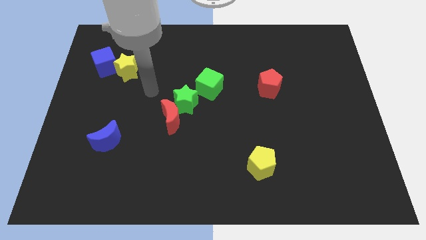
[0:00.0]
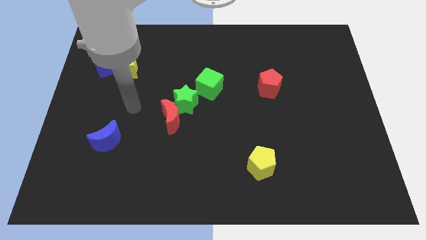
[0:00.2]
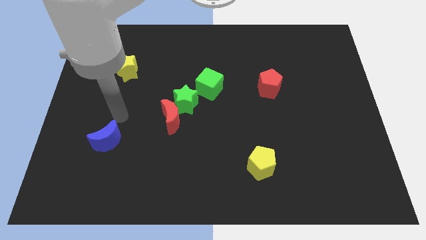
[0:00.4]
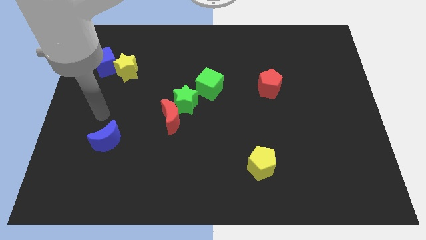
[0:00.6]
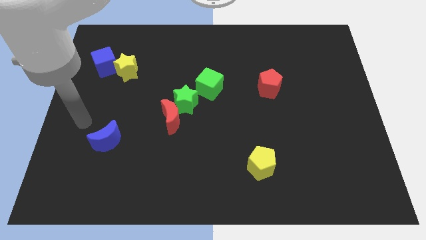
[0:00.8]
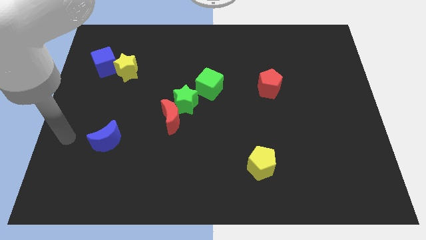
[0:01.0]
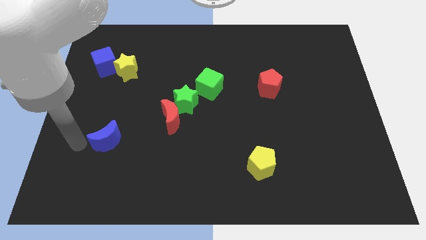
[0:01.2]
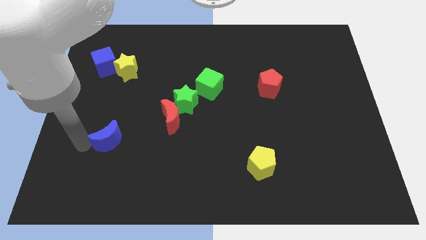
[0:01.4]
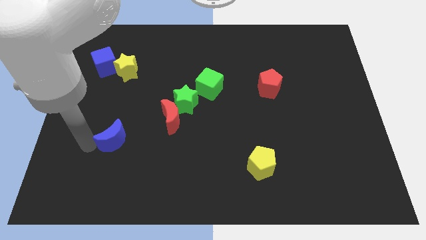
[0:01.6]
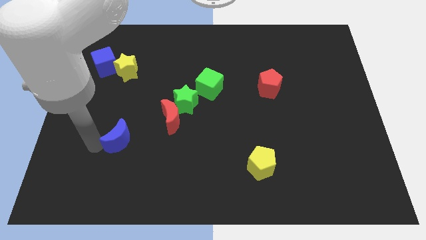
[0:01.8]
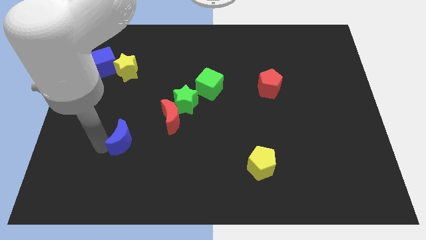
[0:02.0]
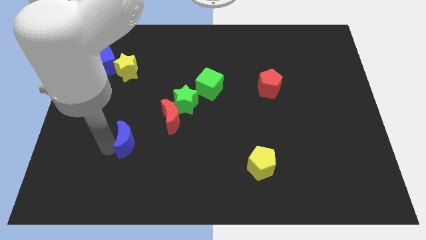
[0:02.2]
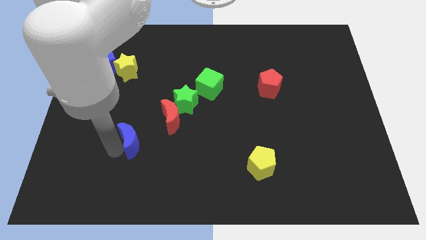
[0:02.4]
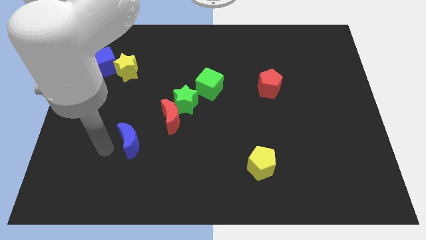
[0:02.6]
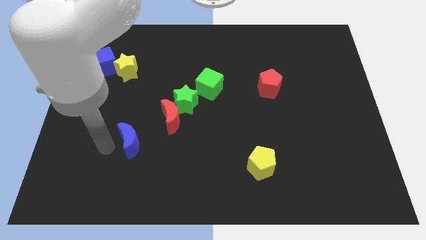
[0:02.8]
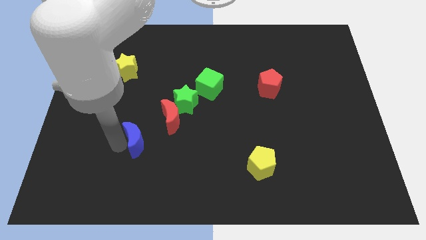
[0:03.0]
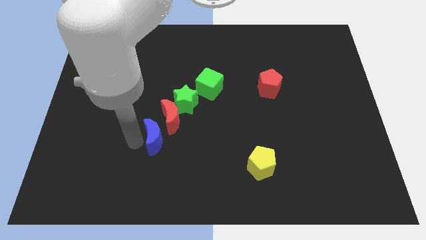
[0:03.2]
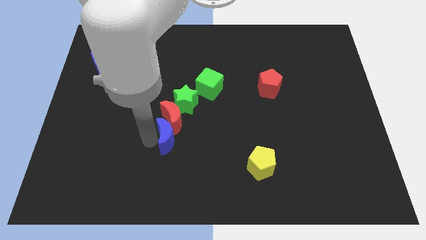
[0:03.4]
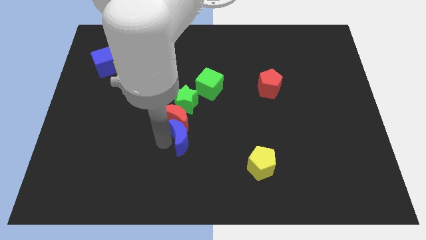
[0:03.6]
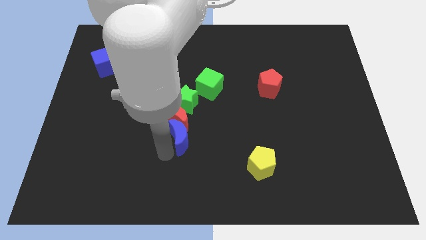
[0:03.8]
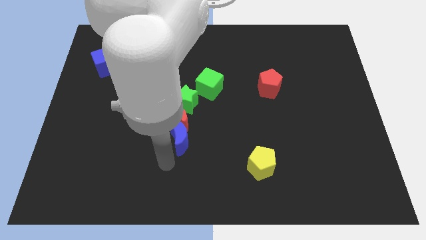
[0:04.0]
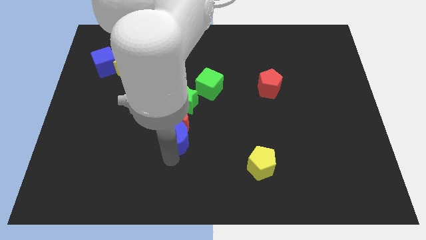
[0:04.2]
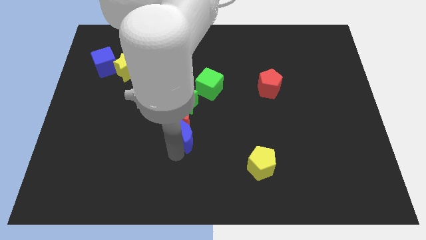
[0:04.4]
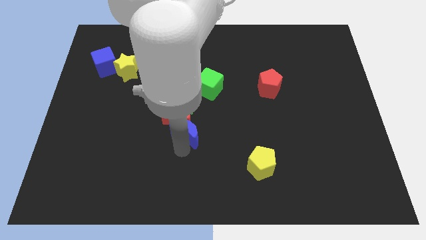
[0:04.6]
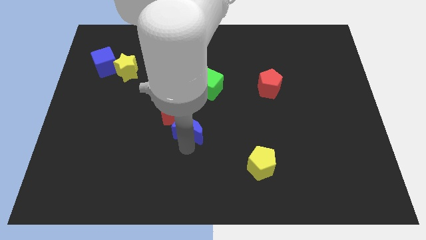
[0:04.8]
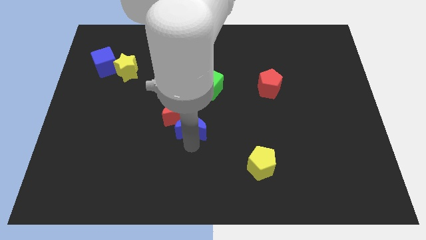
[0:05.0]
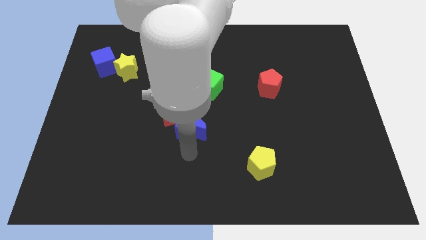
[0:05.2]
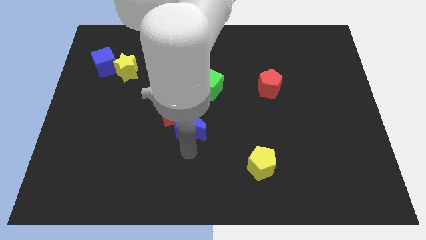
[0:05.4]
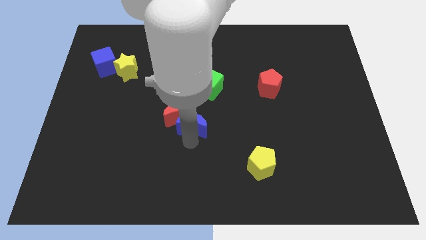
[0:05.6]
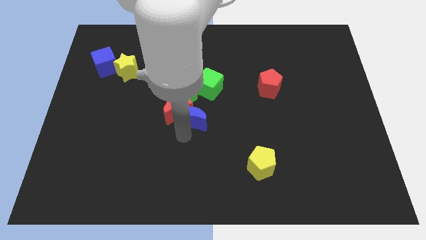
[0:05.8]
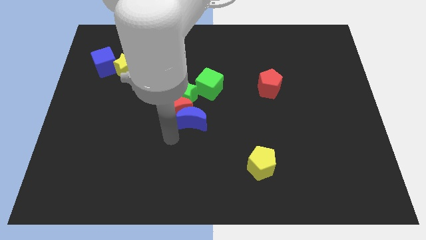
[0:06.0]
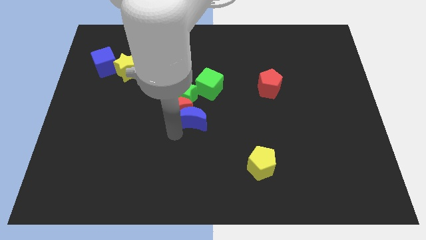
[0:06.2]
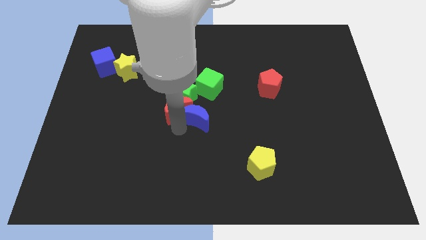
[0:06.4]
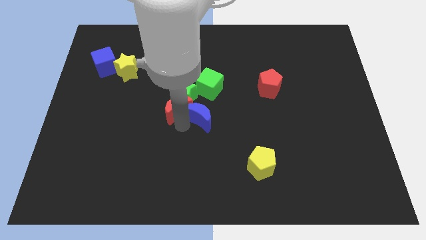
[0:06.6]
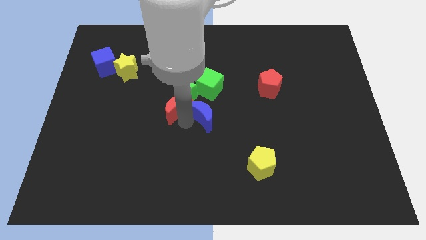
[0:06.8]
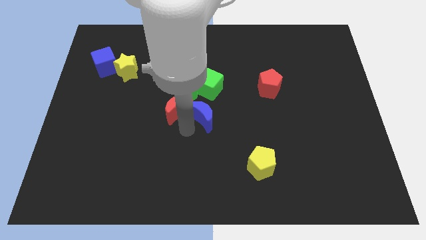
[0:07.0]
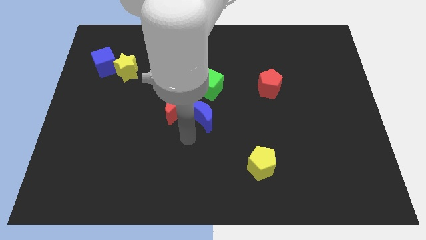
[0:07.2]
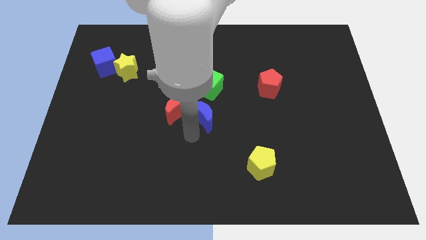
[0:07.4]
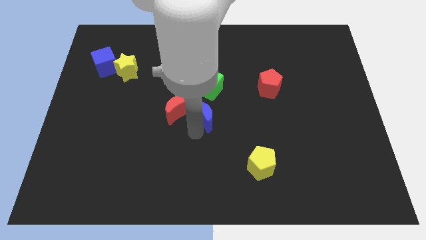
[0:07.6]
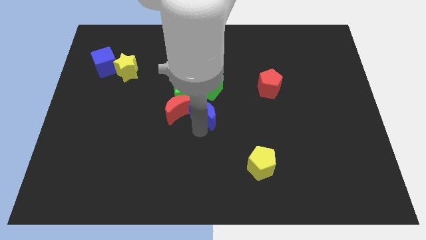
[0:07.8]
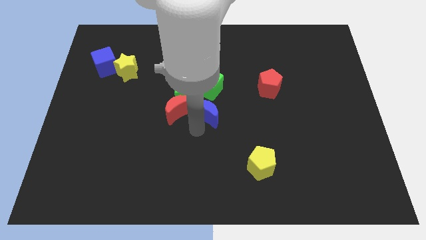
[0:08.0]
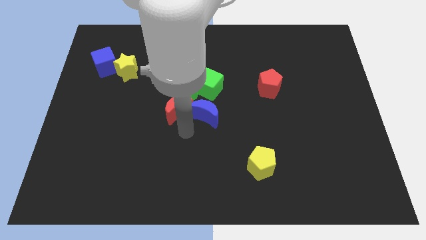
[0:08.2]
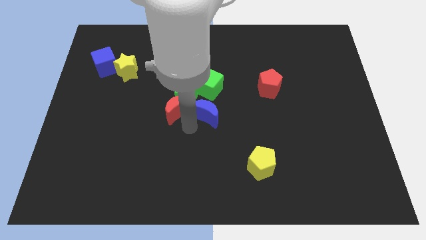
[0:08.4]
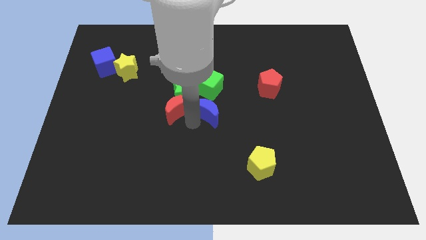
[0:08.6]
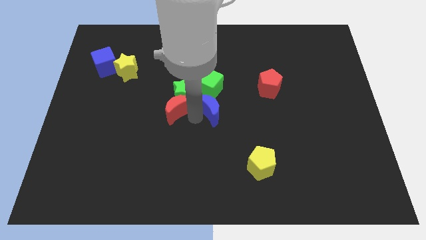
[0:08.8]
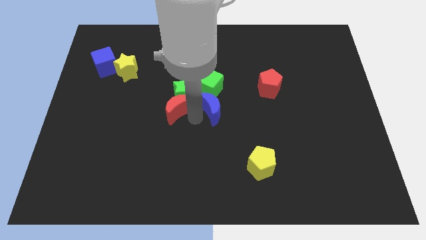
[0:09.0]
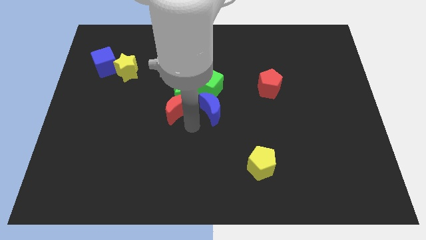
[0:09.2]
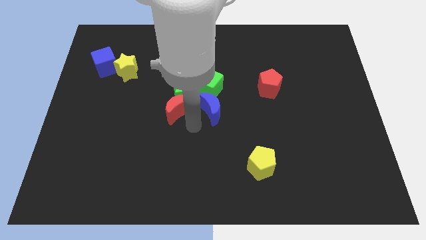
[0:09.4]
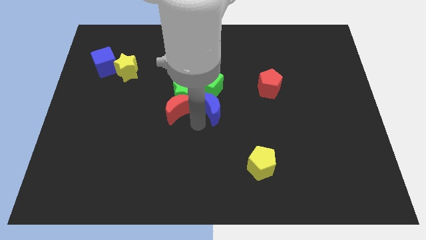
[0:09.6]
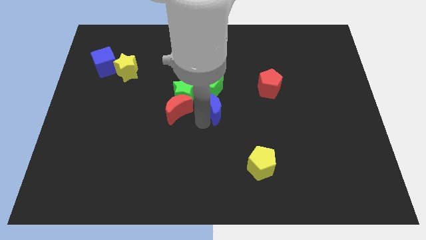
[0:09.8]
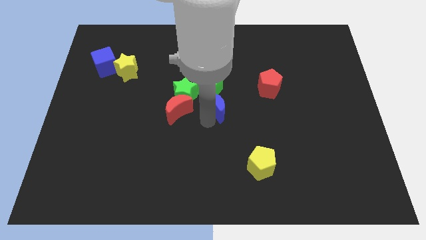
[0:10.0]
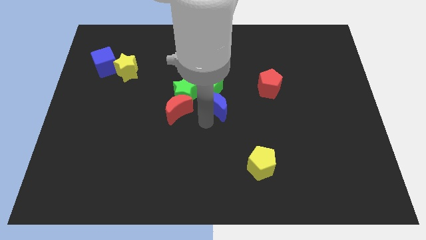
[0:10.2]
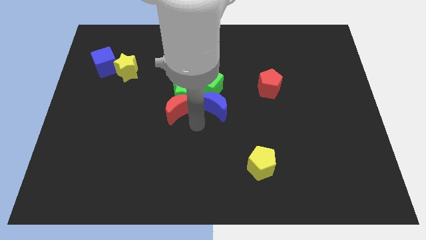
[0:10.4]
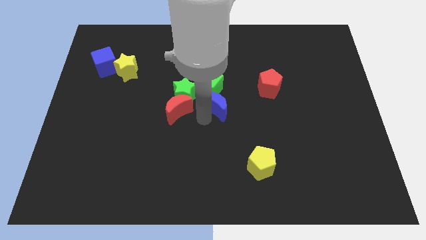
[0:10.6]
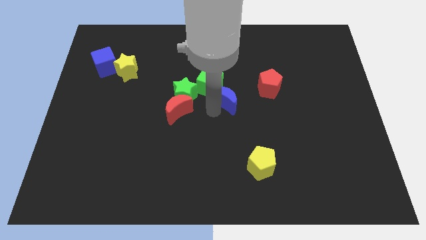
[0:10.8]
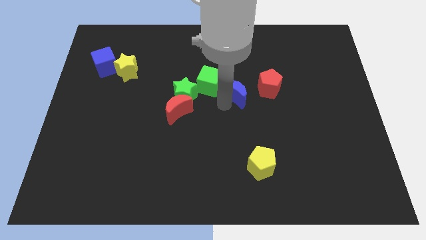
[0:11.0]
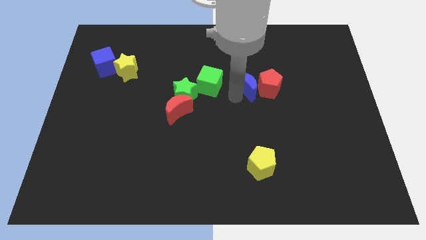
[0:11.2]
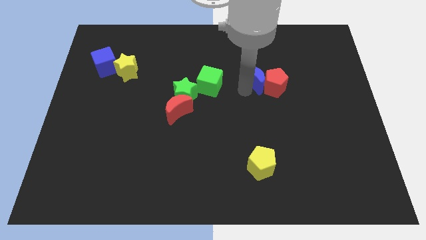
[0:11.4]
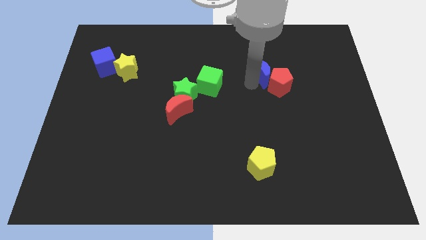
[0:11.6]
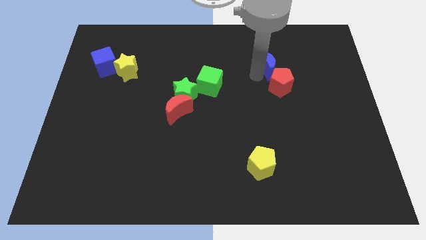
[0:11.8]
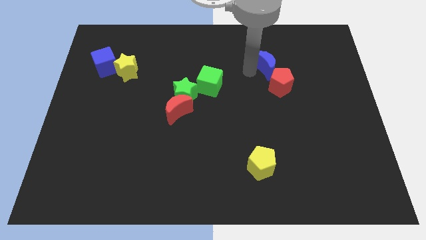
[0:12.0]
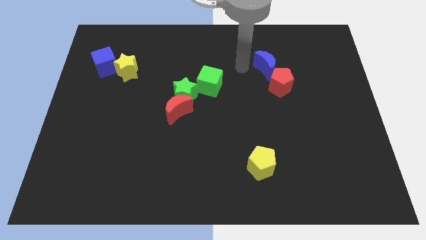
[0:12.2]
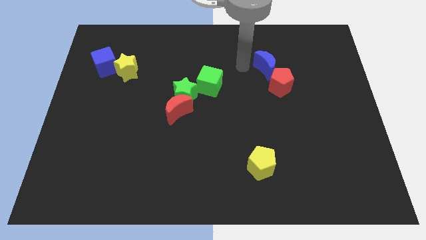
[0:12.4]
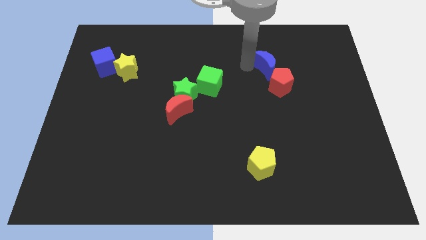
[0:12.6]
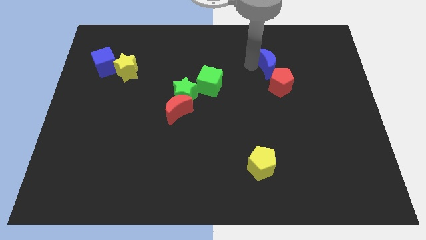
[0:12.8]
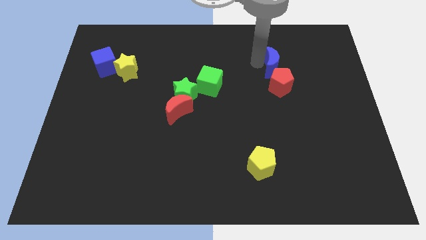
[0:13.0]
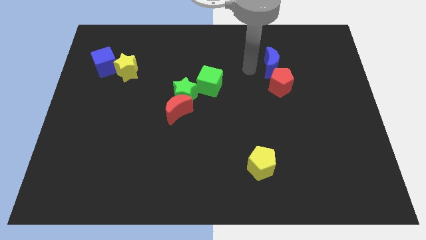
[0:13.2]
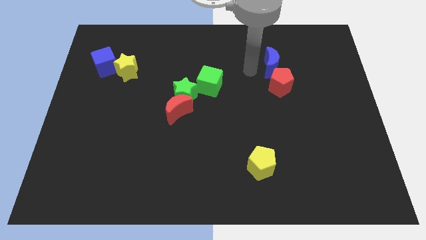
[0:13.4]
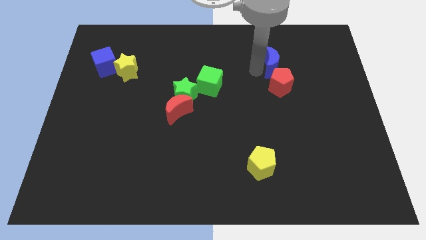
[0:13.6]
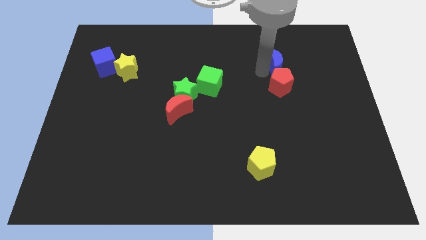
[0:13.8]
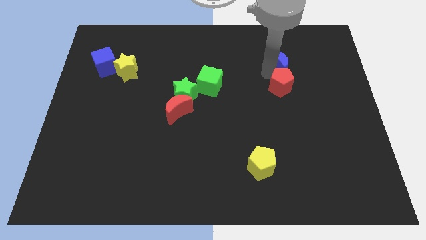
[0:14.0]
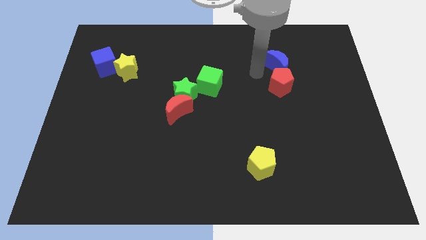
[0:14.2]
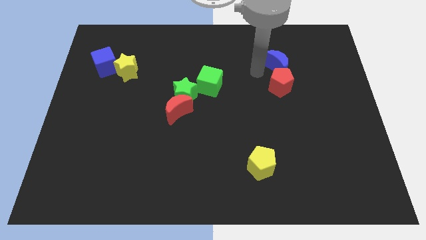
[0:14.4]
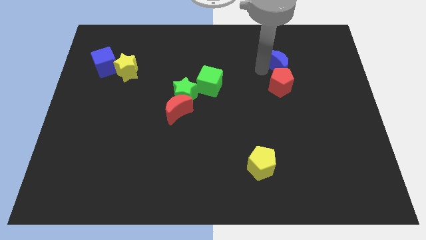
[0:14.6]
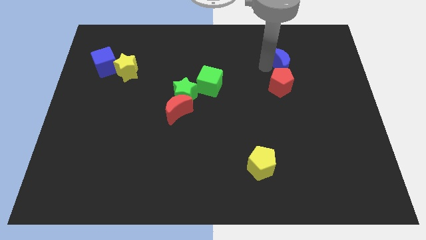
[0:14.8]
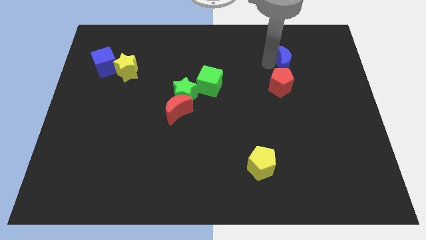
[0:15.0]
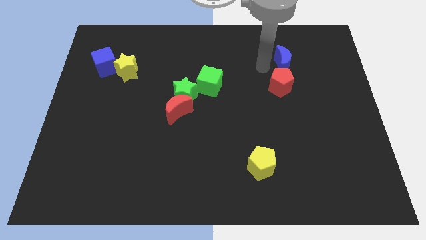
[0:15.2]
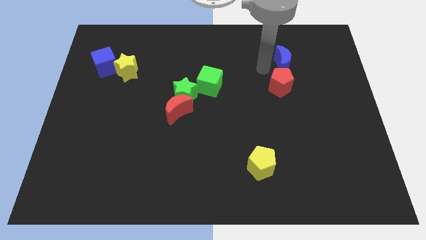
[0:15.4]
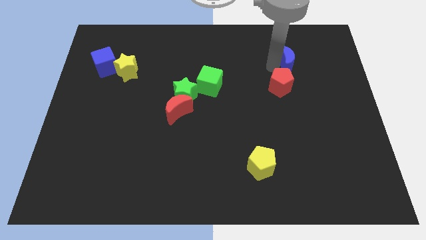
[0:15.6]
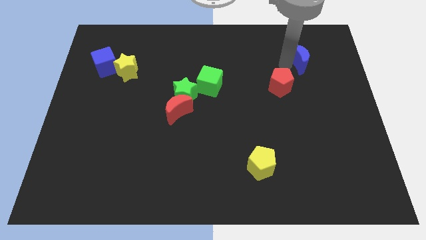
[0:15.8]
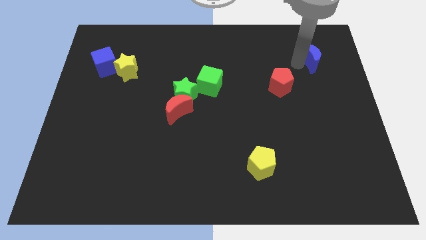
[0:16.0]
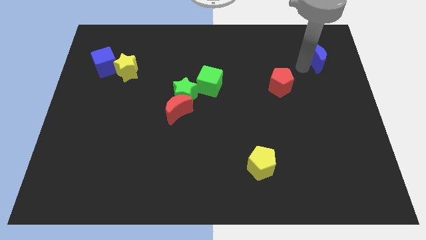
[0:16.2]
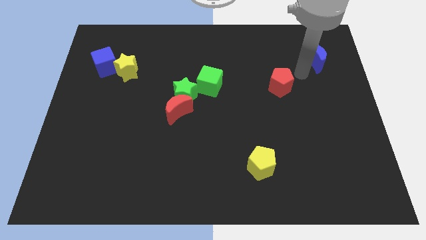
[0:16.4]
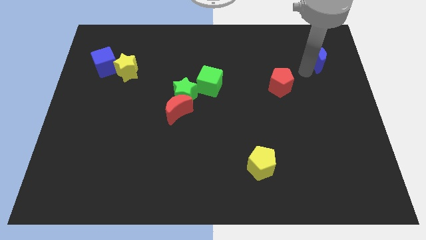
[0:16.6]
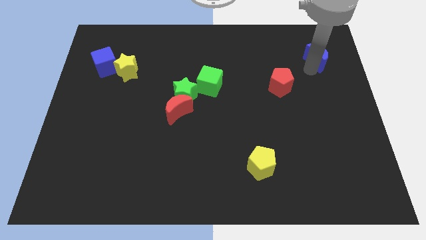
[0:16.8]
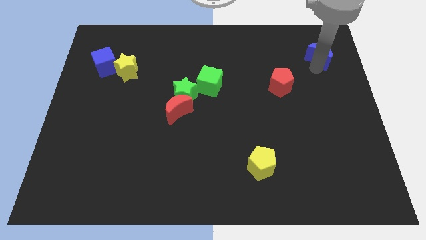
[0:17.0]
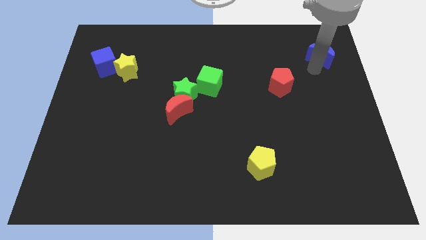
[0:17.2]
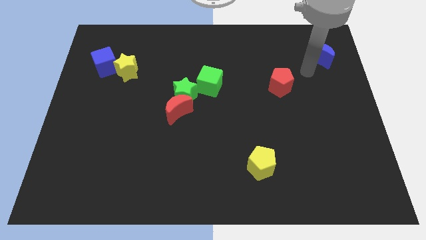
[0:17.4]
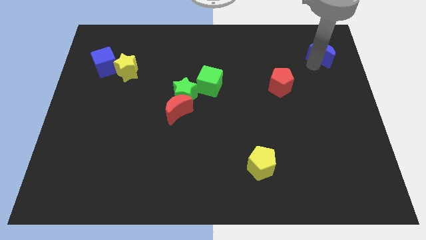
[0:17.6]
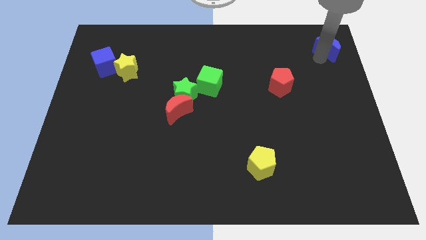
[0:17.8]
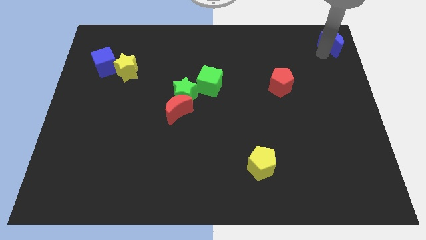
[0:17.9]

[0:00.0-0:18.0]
slide the blue moon to the top right of the board
